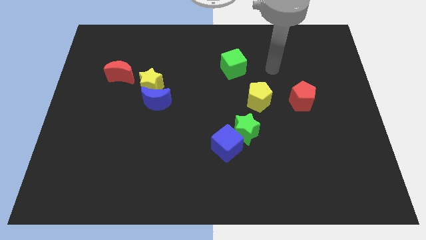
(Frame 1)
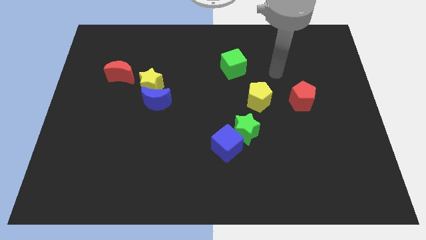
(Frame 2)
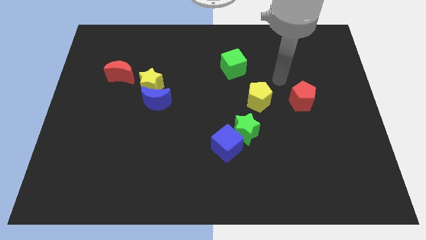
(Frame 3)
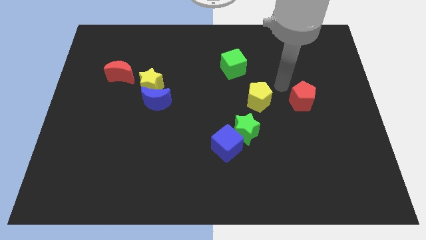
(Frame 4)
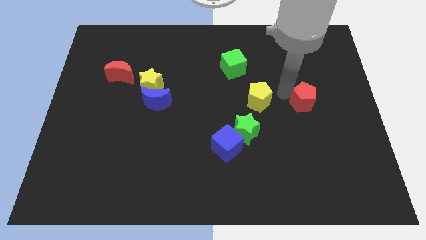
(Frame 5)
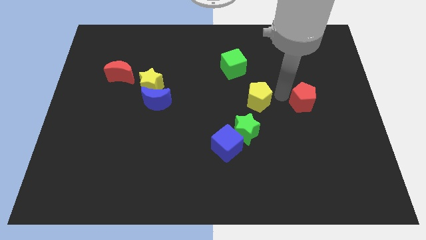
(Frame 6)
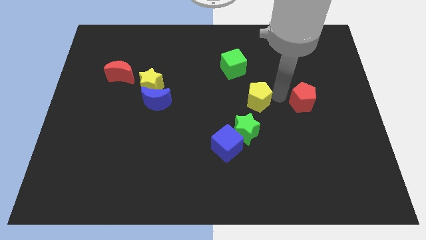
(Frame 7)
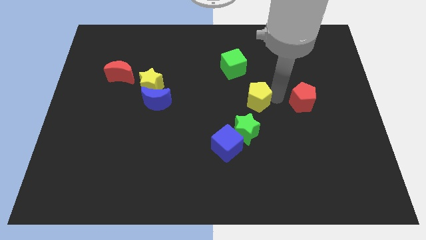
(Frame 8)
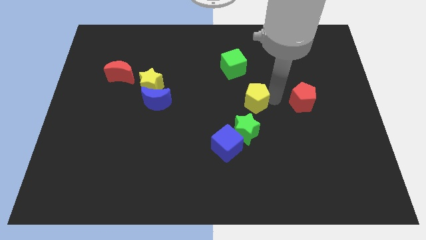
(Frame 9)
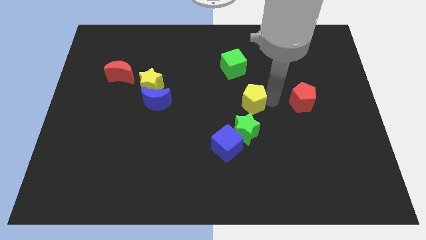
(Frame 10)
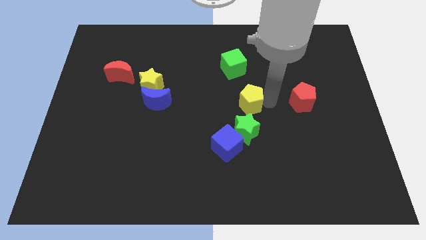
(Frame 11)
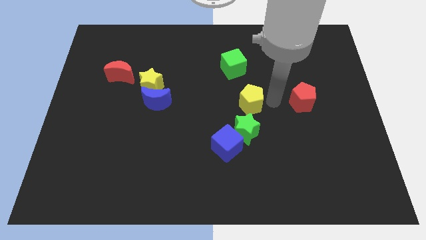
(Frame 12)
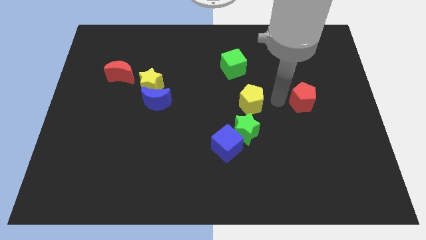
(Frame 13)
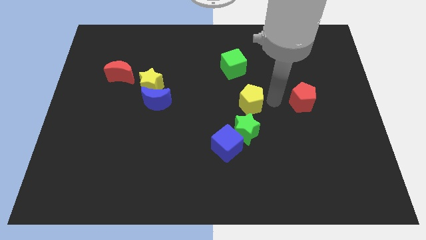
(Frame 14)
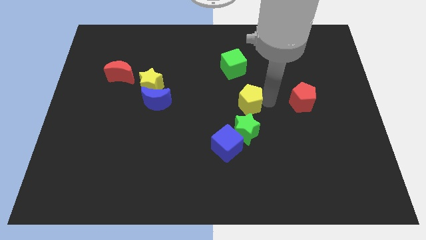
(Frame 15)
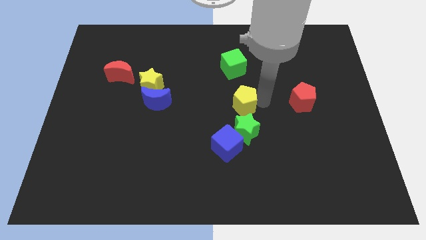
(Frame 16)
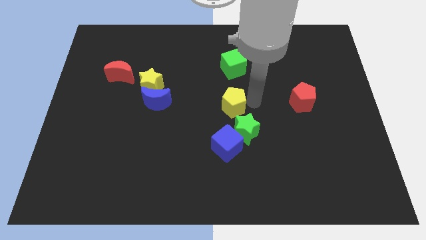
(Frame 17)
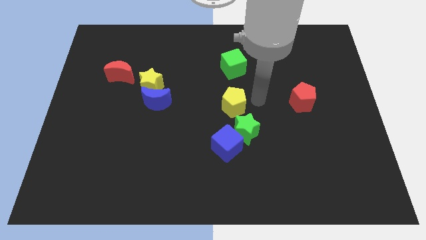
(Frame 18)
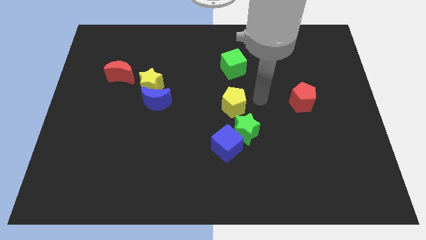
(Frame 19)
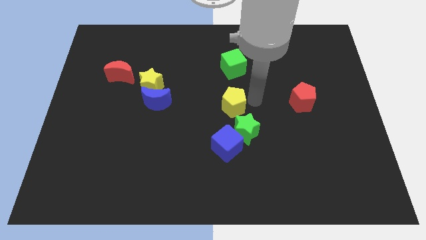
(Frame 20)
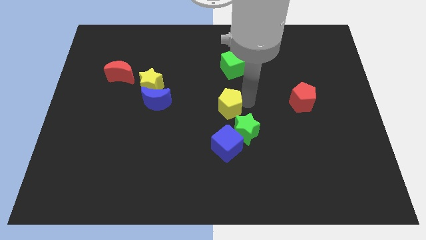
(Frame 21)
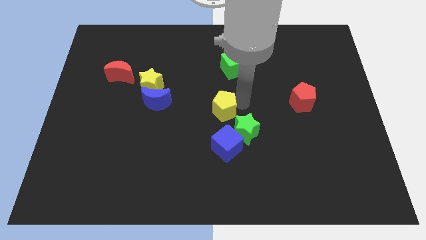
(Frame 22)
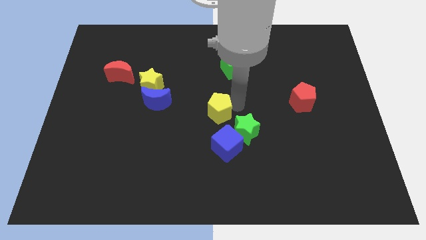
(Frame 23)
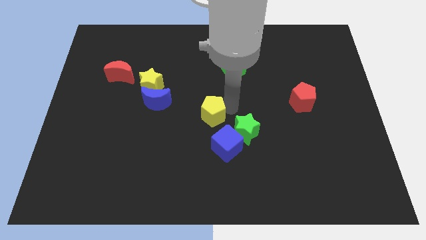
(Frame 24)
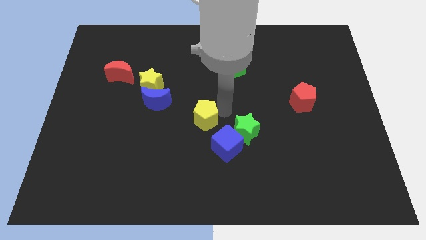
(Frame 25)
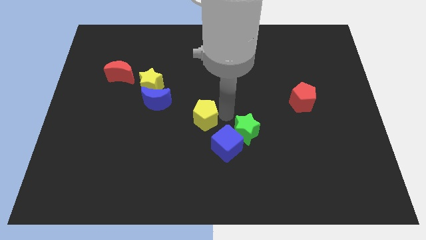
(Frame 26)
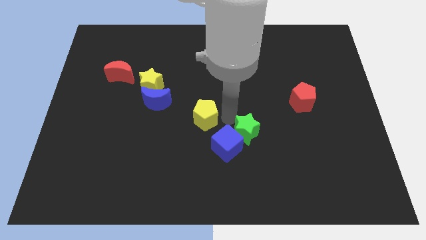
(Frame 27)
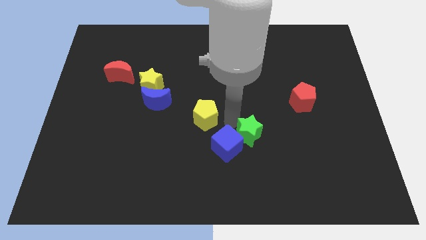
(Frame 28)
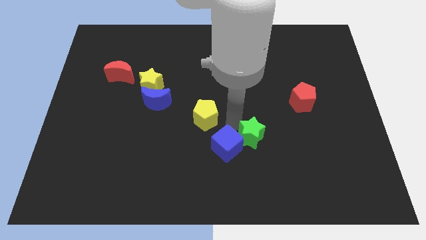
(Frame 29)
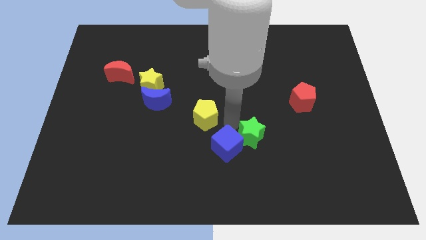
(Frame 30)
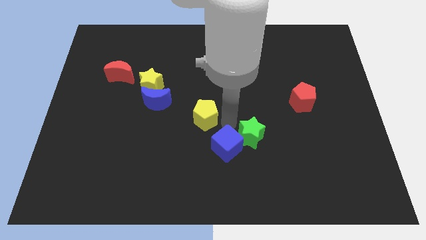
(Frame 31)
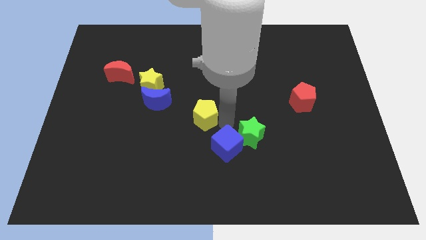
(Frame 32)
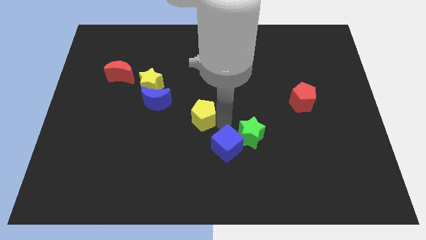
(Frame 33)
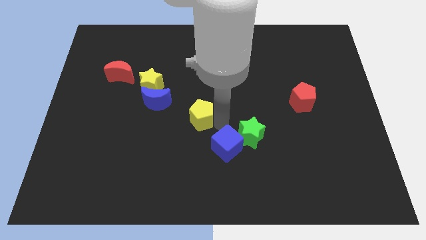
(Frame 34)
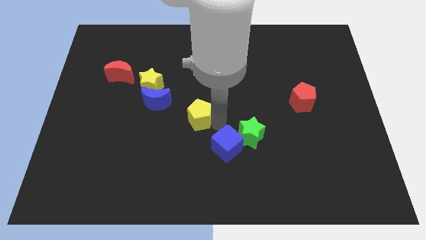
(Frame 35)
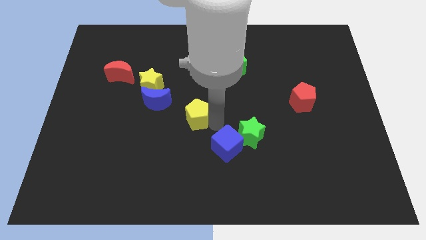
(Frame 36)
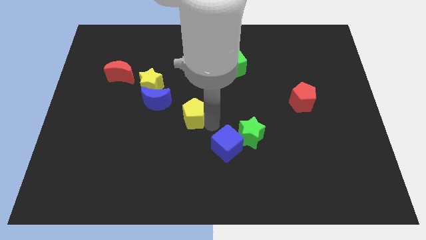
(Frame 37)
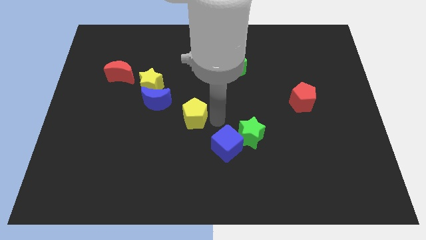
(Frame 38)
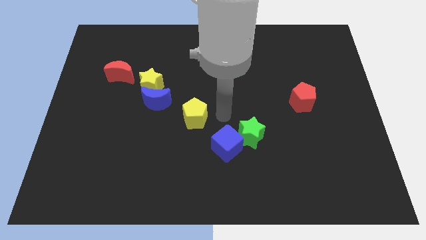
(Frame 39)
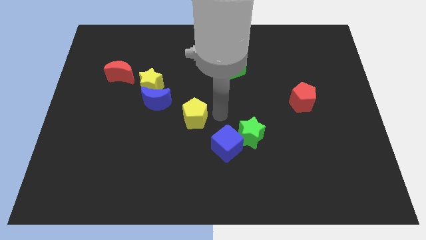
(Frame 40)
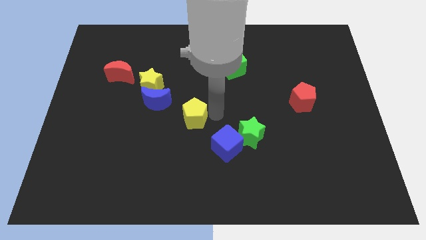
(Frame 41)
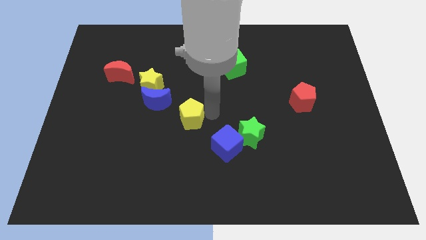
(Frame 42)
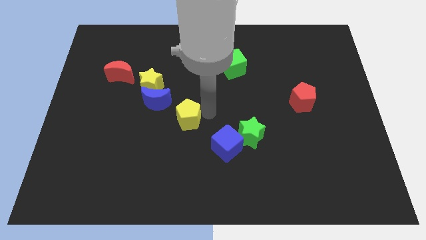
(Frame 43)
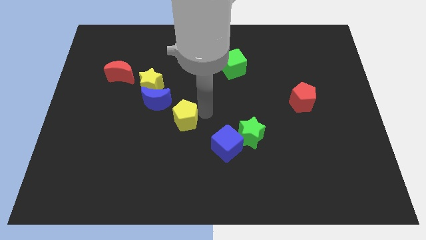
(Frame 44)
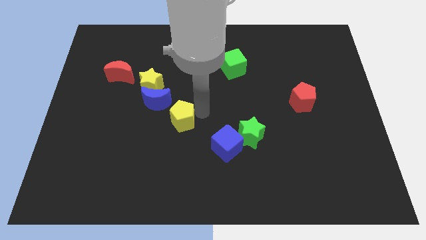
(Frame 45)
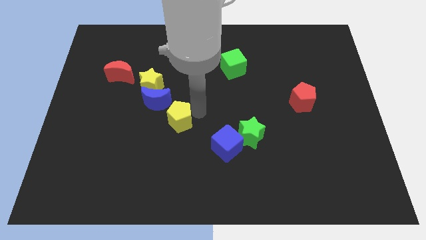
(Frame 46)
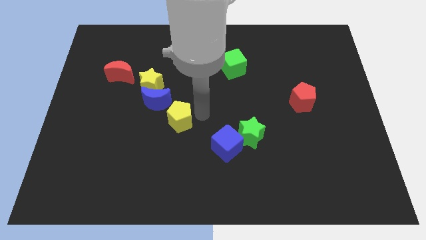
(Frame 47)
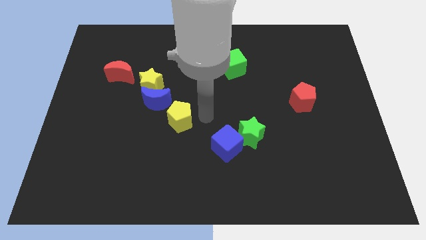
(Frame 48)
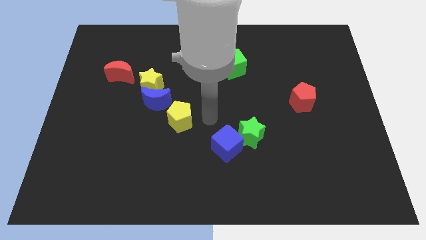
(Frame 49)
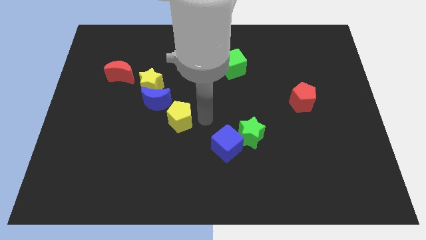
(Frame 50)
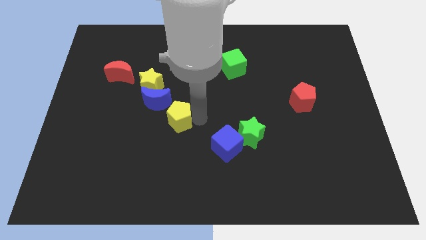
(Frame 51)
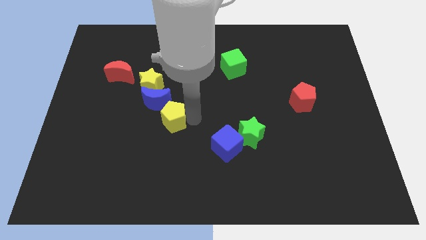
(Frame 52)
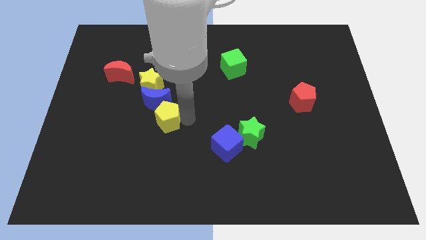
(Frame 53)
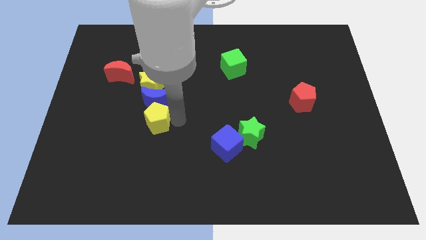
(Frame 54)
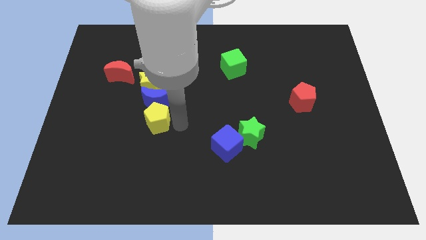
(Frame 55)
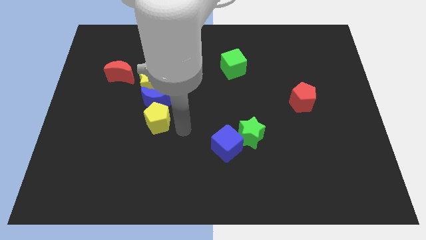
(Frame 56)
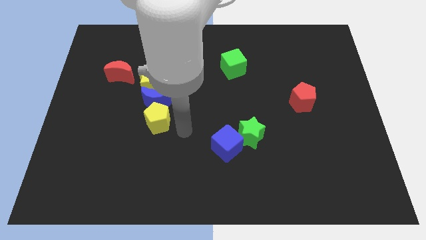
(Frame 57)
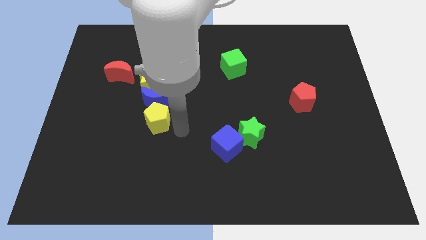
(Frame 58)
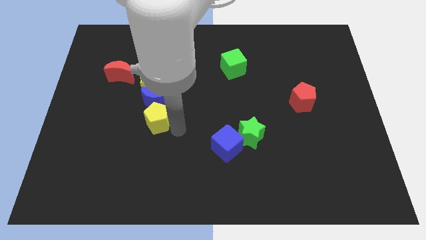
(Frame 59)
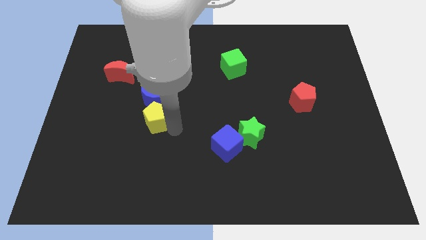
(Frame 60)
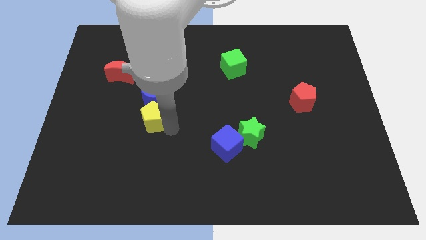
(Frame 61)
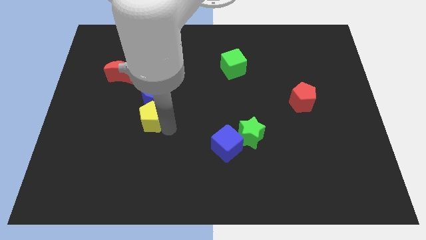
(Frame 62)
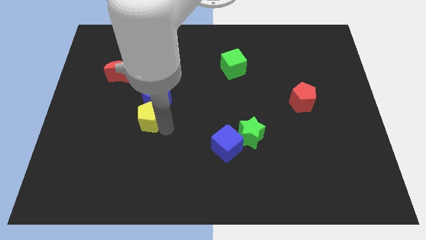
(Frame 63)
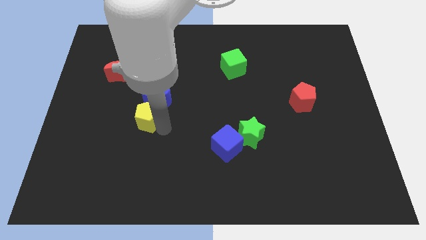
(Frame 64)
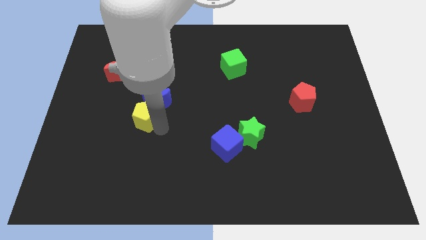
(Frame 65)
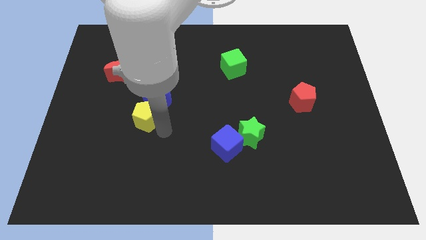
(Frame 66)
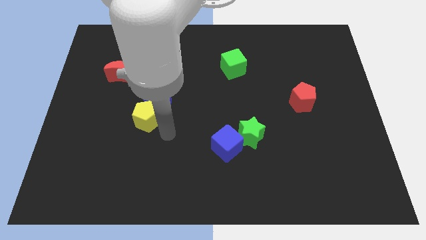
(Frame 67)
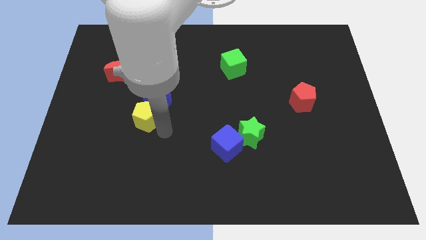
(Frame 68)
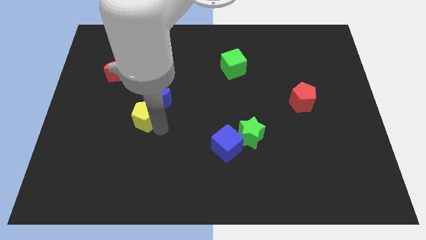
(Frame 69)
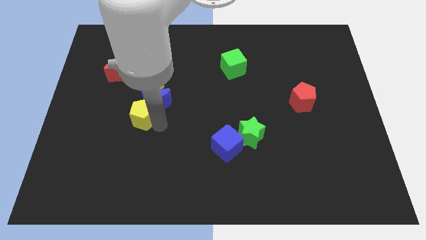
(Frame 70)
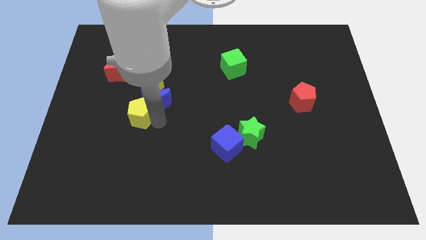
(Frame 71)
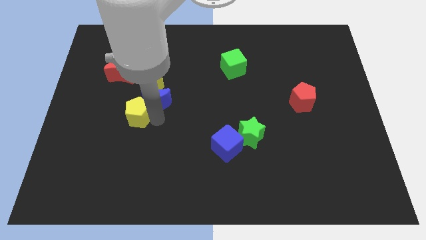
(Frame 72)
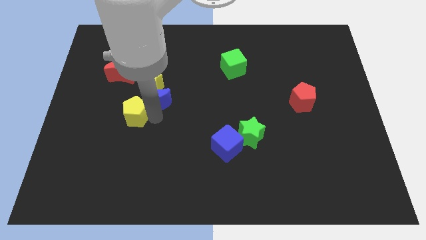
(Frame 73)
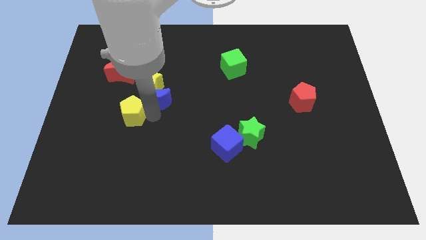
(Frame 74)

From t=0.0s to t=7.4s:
push the yellow pentagon below the red moon
